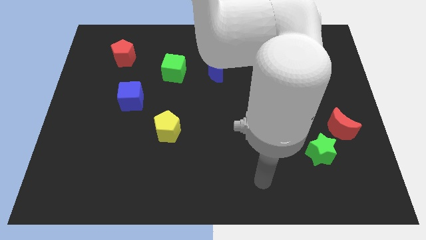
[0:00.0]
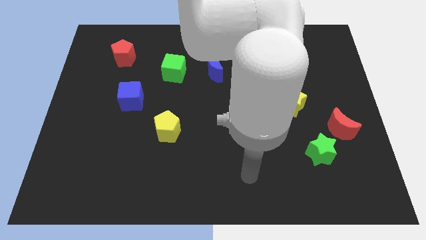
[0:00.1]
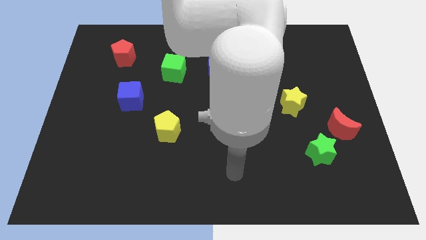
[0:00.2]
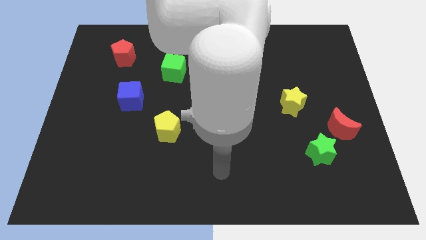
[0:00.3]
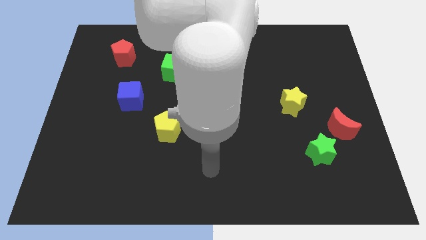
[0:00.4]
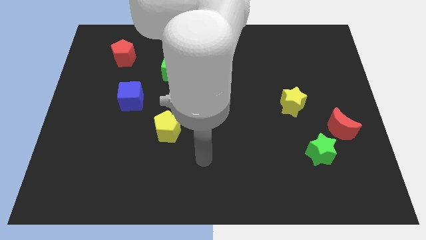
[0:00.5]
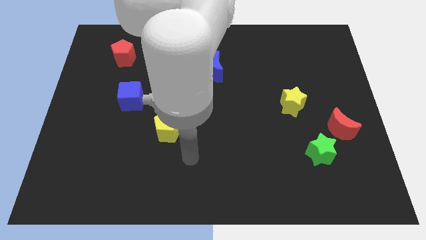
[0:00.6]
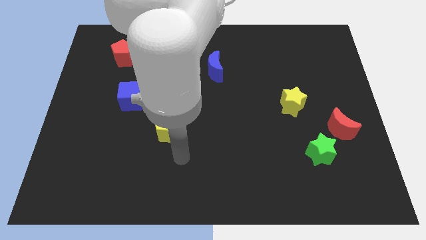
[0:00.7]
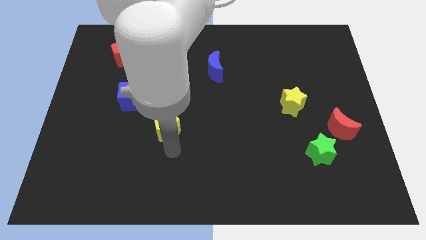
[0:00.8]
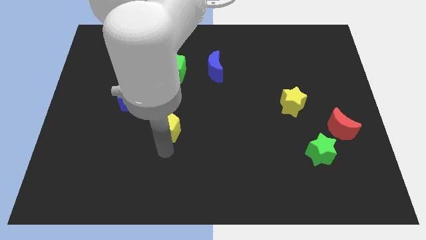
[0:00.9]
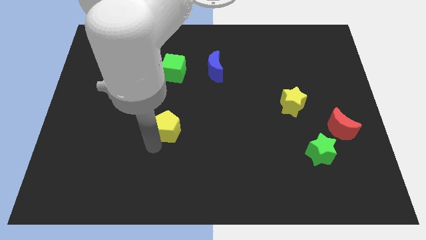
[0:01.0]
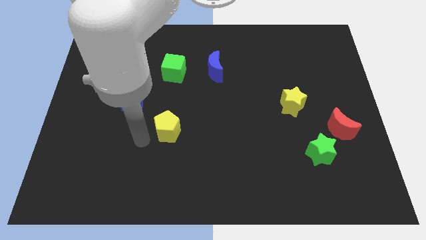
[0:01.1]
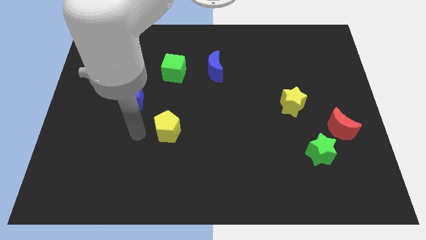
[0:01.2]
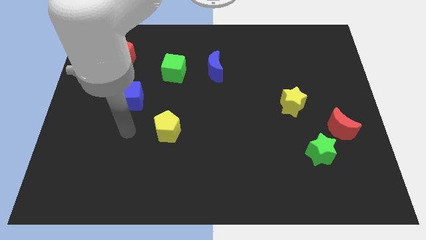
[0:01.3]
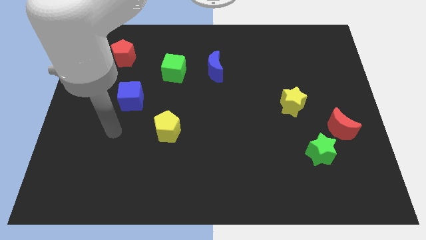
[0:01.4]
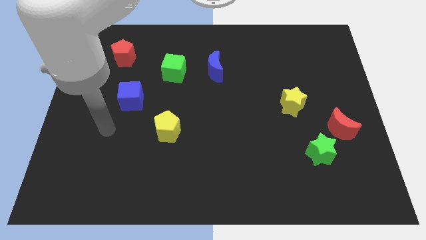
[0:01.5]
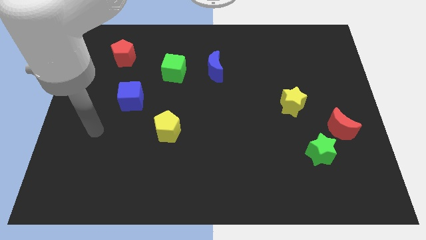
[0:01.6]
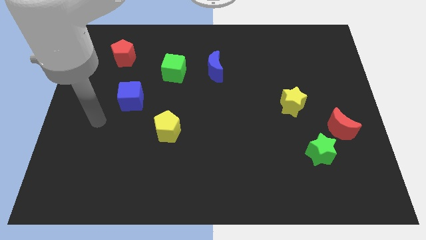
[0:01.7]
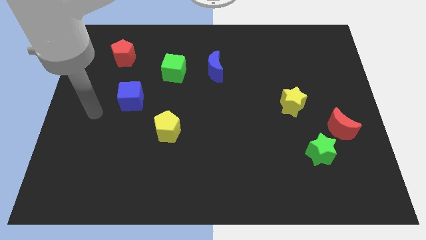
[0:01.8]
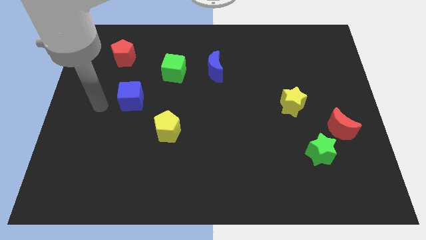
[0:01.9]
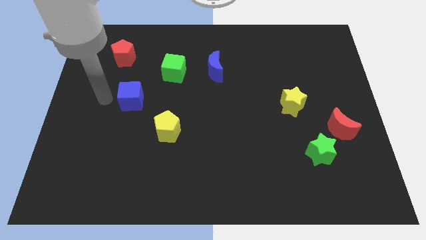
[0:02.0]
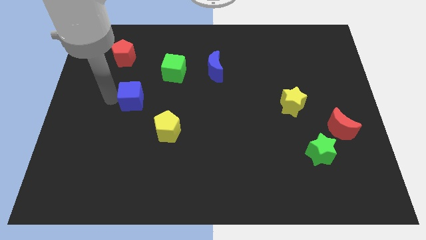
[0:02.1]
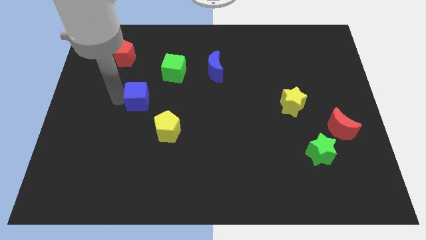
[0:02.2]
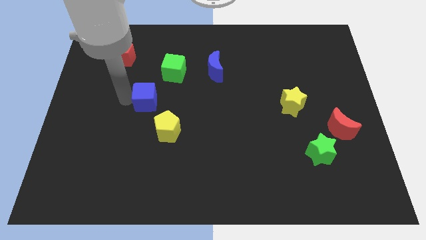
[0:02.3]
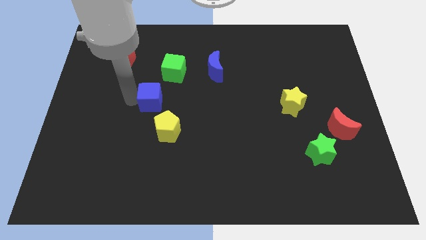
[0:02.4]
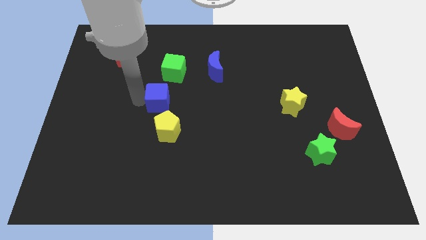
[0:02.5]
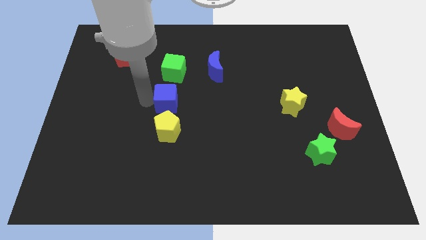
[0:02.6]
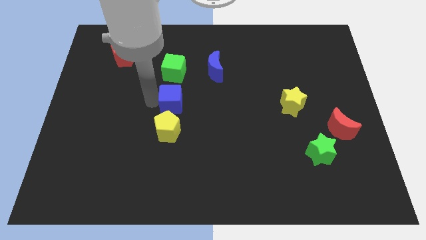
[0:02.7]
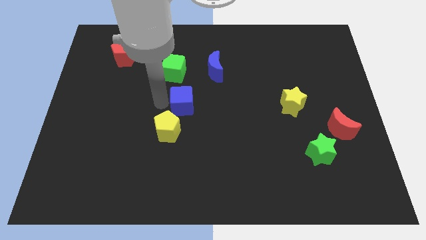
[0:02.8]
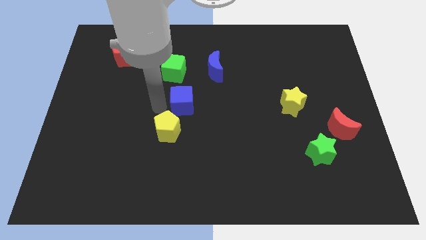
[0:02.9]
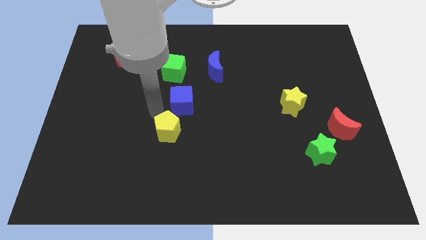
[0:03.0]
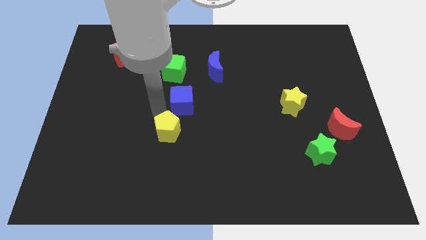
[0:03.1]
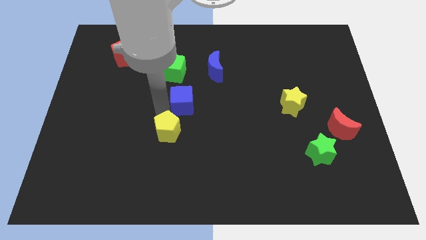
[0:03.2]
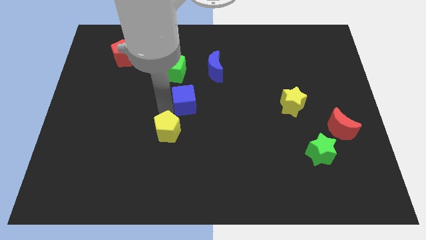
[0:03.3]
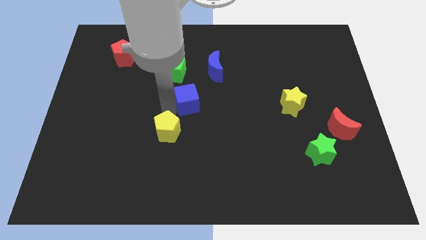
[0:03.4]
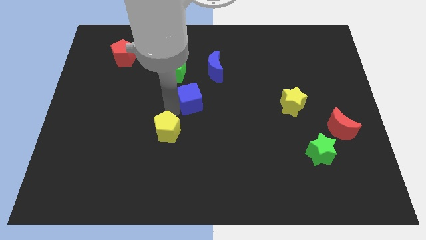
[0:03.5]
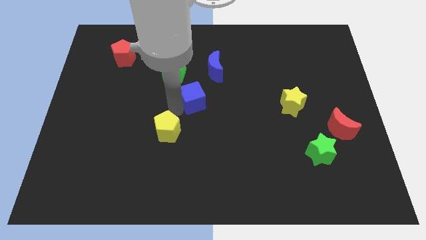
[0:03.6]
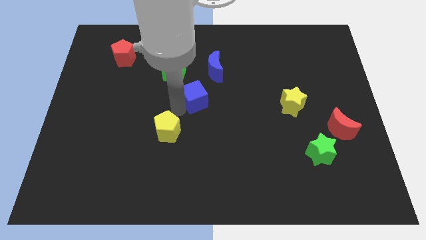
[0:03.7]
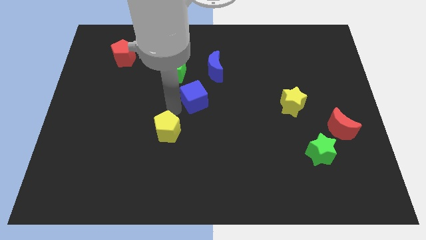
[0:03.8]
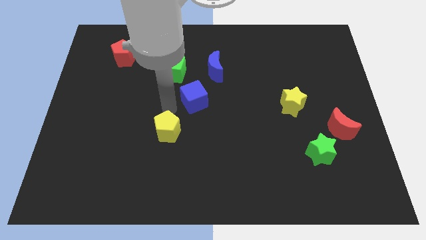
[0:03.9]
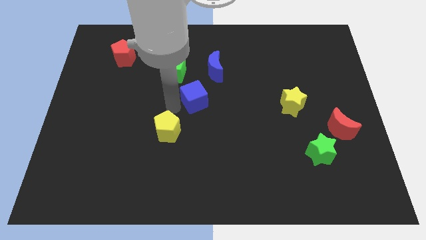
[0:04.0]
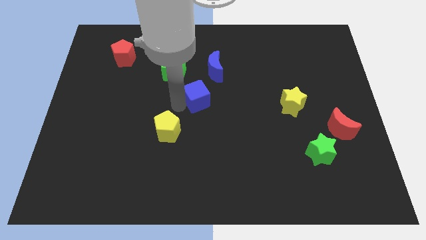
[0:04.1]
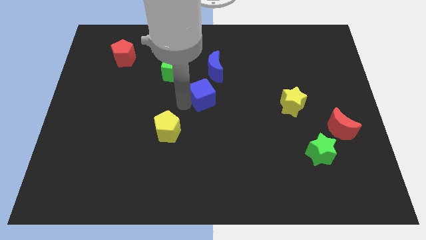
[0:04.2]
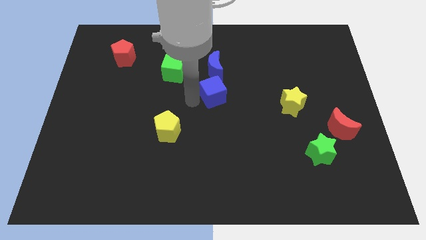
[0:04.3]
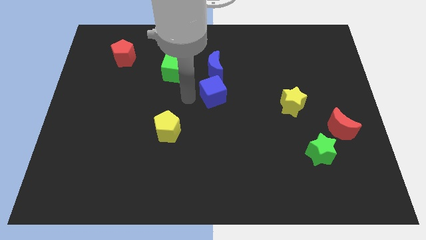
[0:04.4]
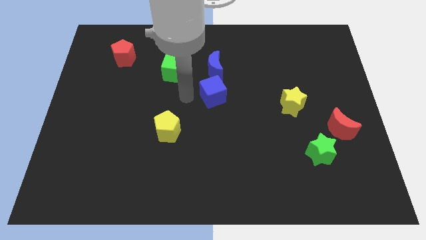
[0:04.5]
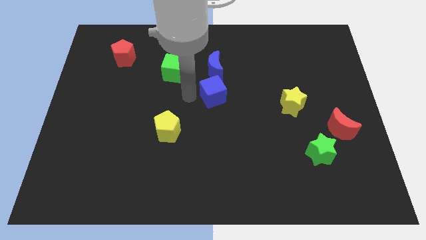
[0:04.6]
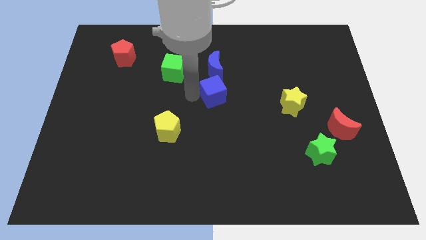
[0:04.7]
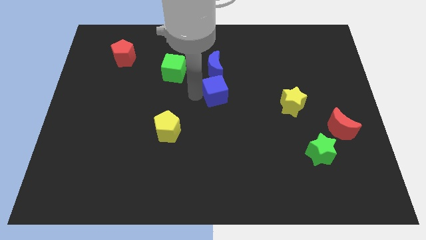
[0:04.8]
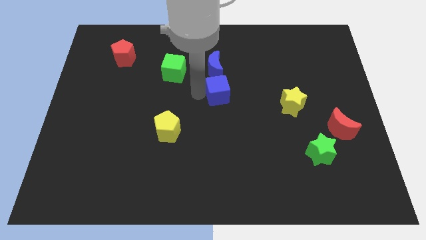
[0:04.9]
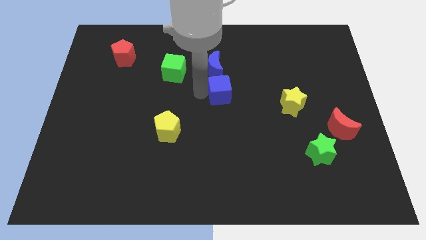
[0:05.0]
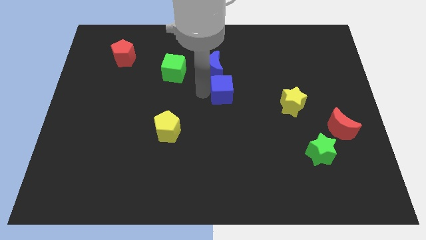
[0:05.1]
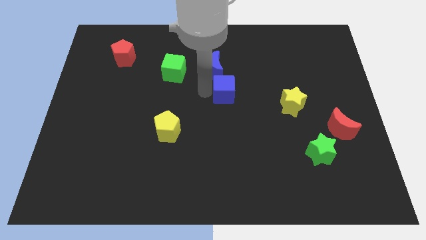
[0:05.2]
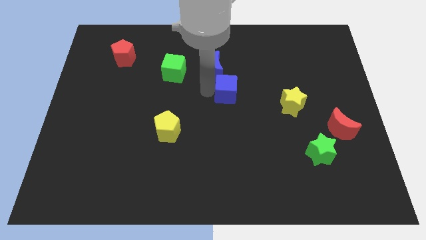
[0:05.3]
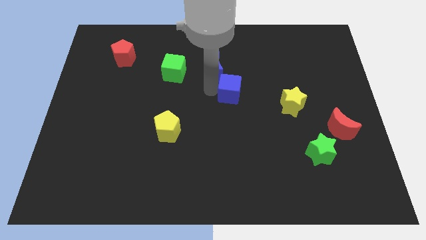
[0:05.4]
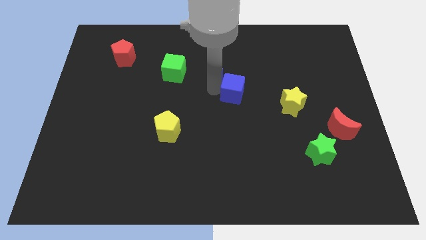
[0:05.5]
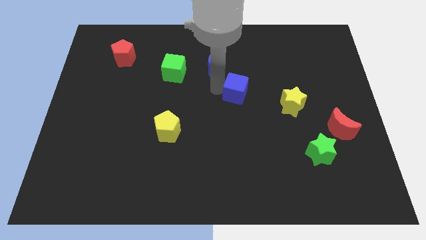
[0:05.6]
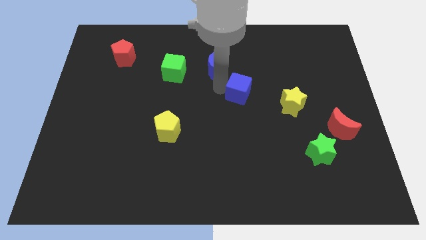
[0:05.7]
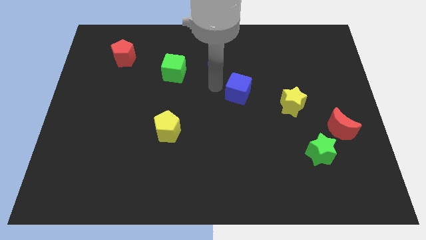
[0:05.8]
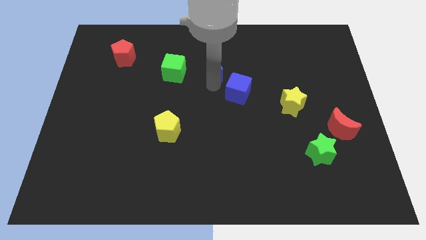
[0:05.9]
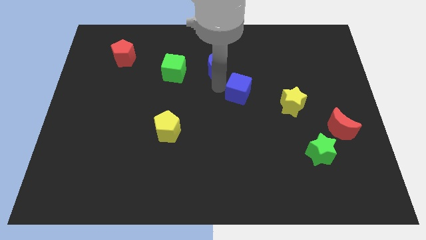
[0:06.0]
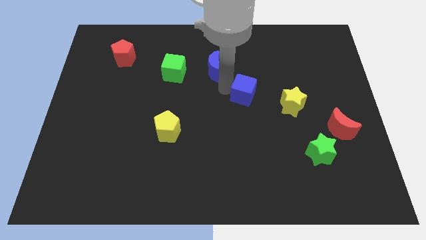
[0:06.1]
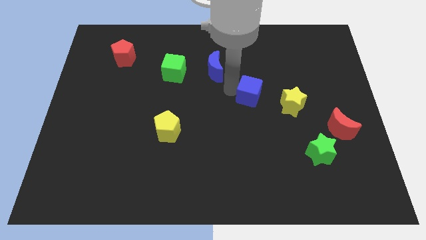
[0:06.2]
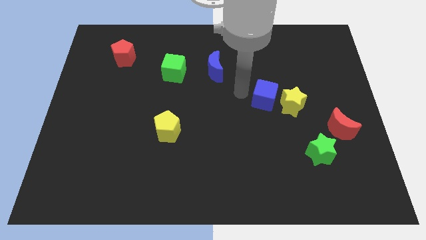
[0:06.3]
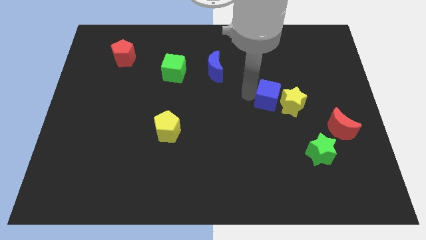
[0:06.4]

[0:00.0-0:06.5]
move the blue cube to the yellow star

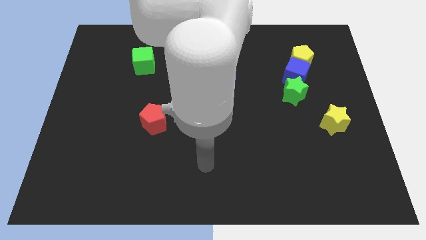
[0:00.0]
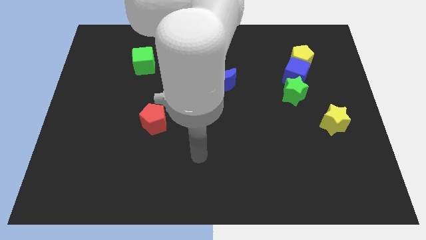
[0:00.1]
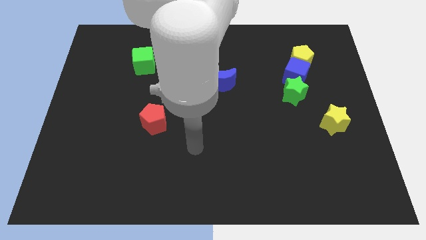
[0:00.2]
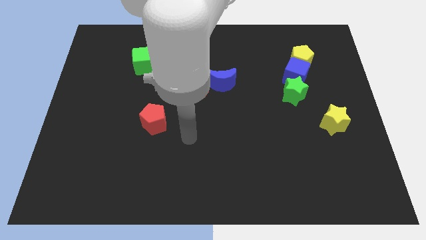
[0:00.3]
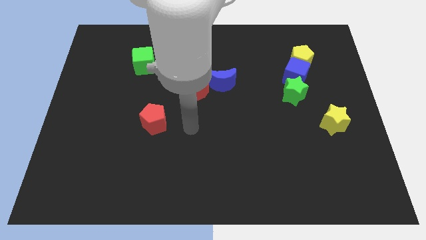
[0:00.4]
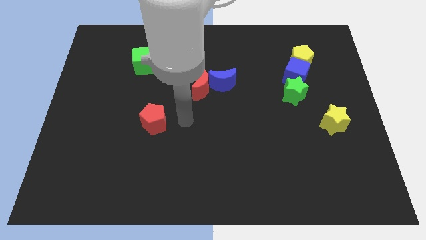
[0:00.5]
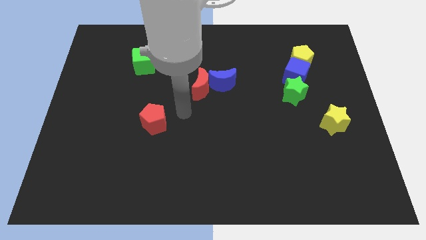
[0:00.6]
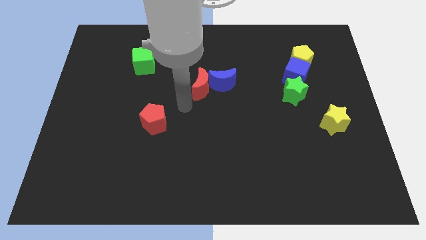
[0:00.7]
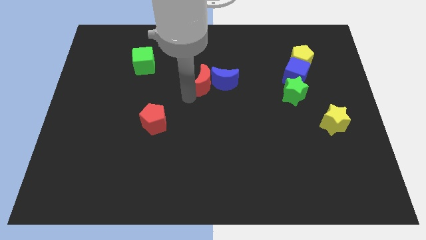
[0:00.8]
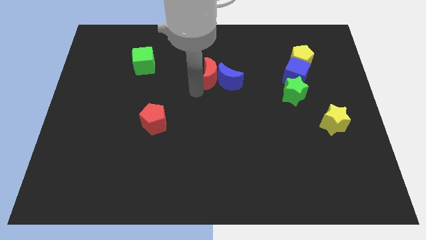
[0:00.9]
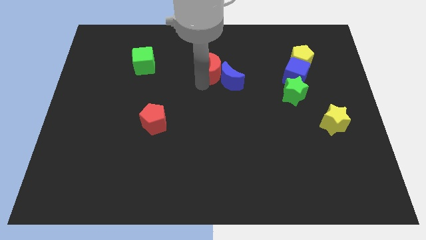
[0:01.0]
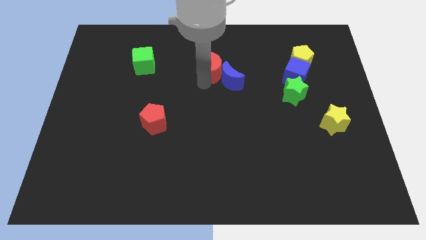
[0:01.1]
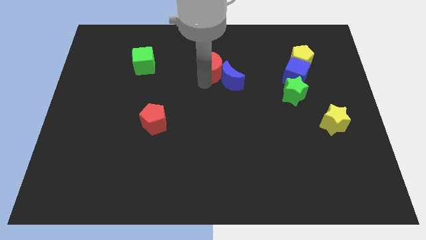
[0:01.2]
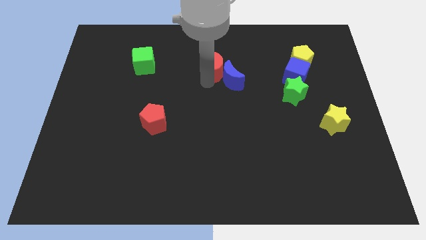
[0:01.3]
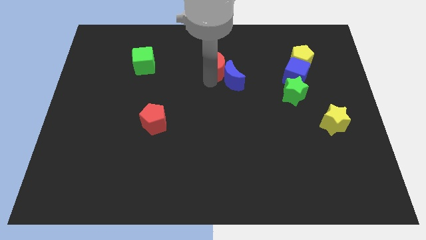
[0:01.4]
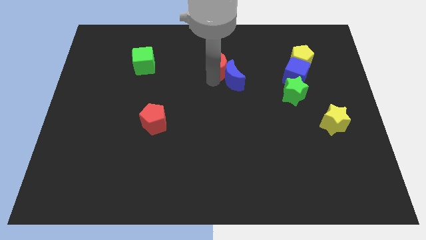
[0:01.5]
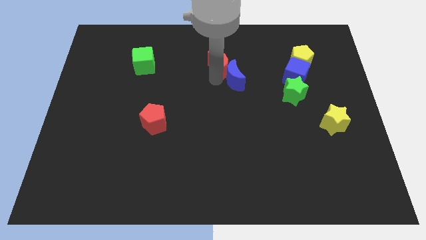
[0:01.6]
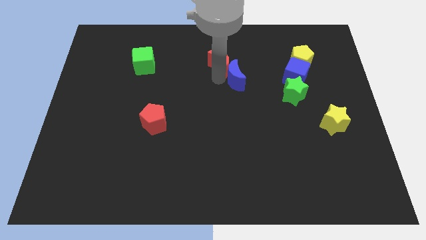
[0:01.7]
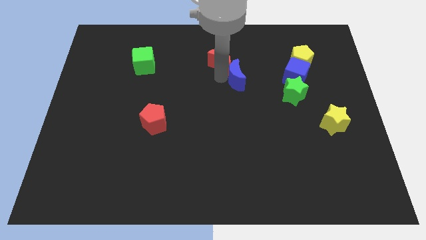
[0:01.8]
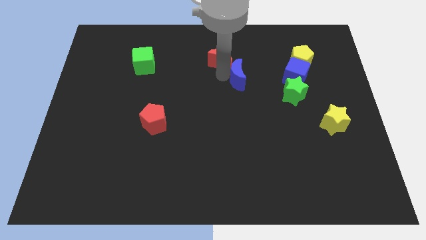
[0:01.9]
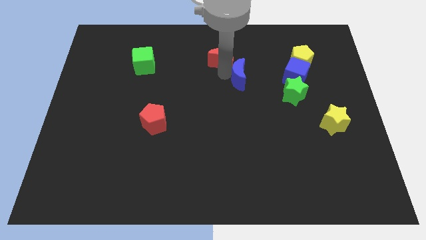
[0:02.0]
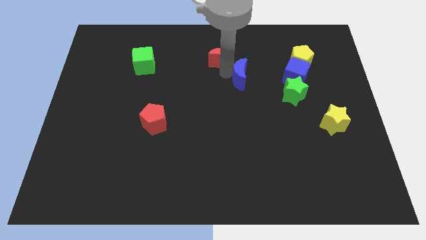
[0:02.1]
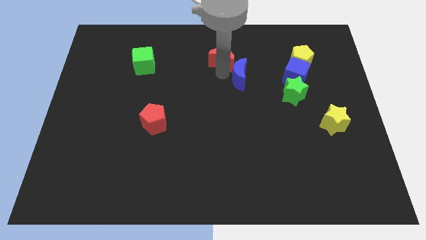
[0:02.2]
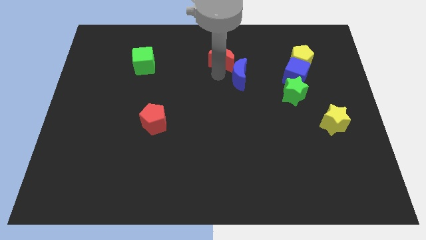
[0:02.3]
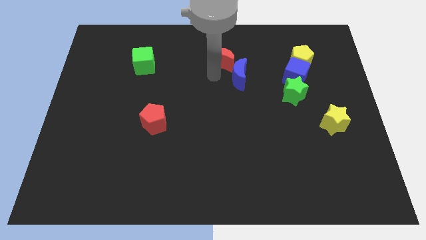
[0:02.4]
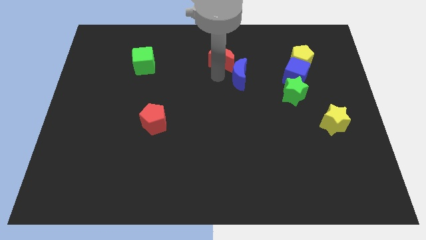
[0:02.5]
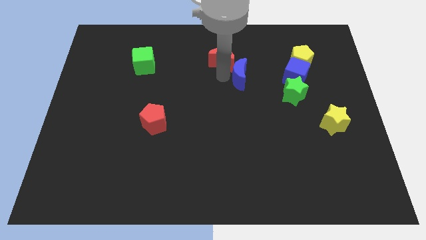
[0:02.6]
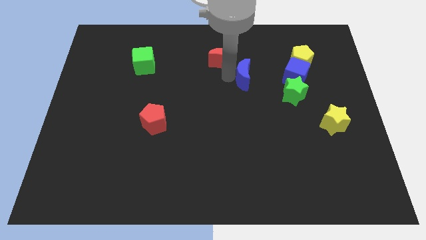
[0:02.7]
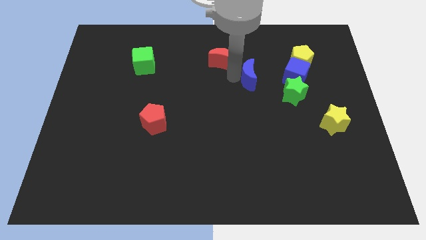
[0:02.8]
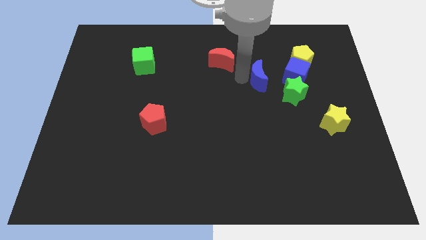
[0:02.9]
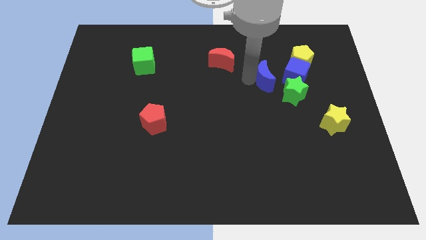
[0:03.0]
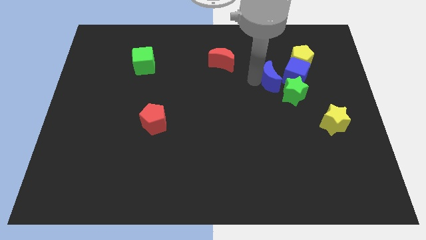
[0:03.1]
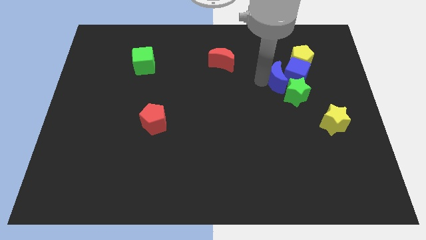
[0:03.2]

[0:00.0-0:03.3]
push the blue moon to the blue cube
